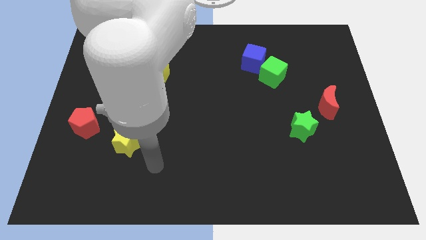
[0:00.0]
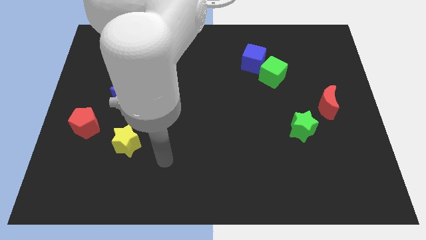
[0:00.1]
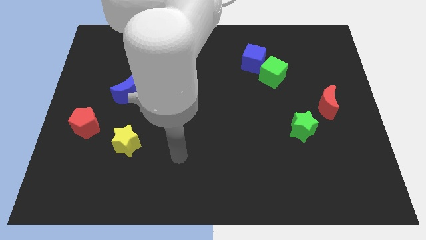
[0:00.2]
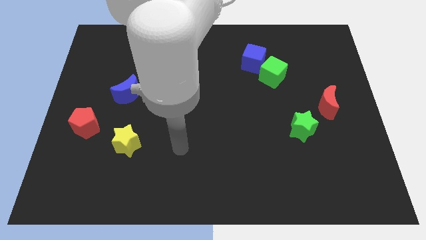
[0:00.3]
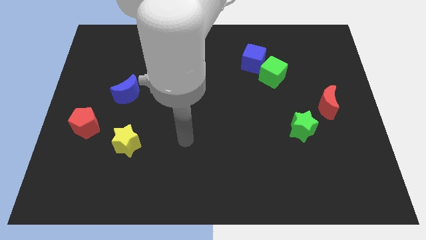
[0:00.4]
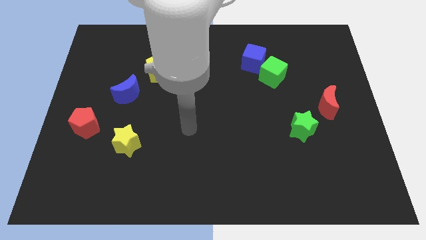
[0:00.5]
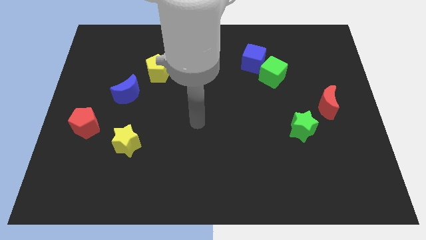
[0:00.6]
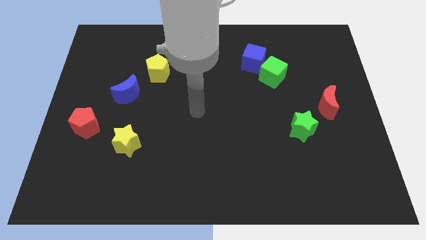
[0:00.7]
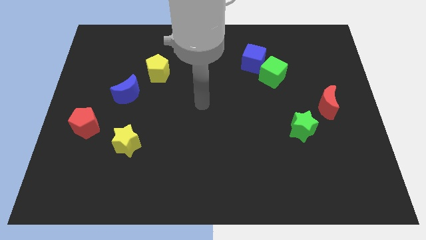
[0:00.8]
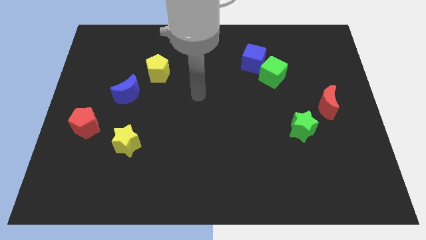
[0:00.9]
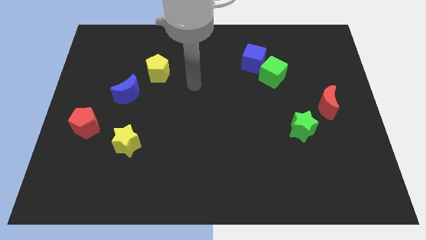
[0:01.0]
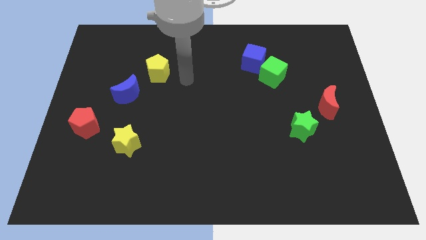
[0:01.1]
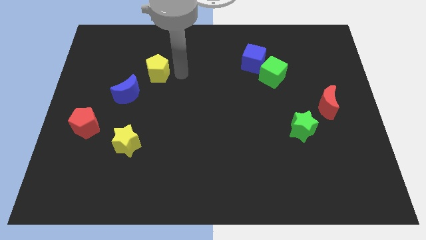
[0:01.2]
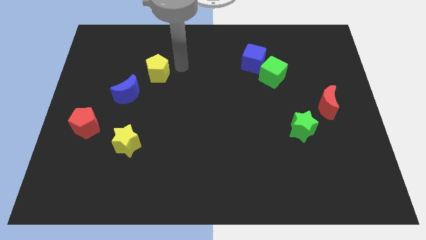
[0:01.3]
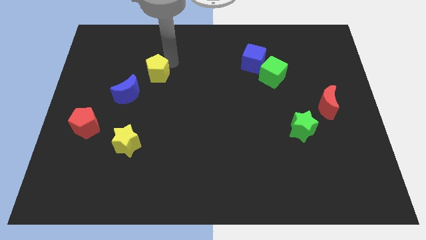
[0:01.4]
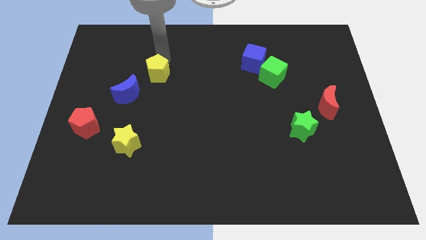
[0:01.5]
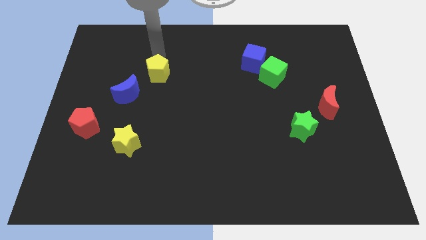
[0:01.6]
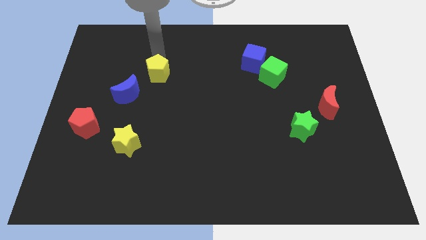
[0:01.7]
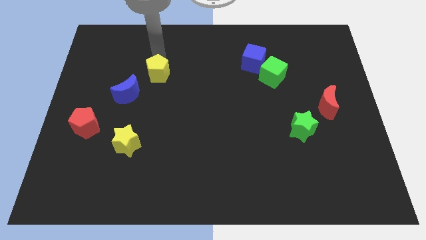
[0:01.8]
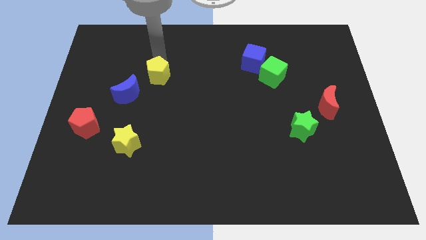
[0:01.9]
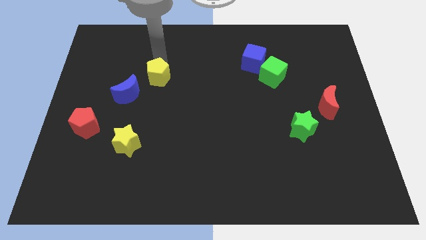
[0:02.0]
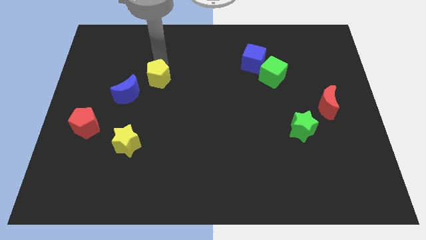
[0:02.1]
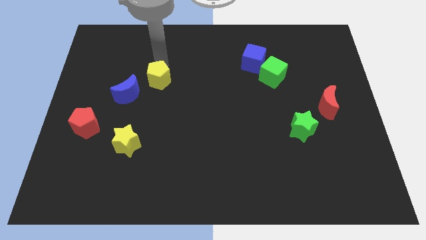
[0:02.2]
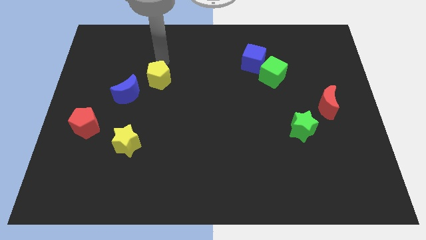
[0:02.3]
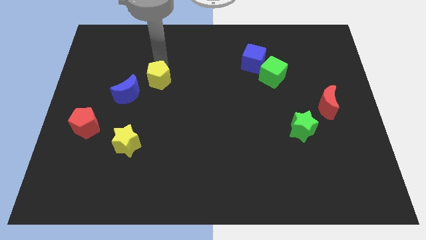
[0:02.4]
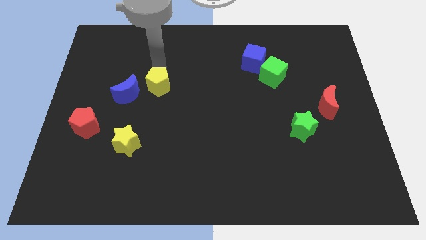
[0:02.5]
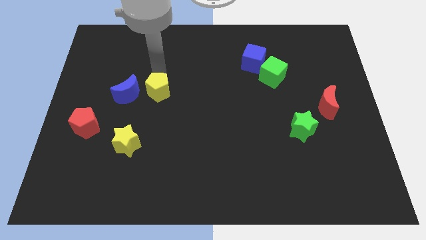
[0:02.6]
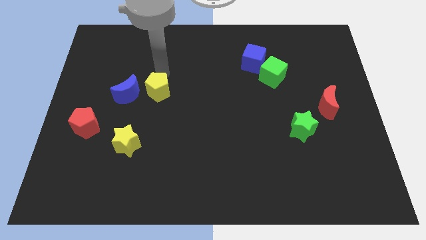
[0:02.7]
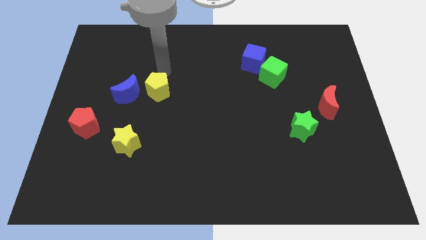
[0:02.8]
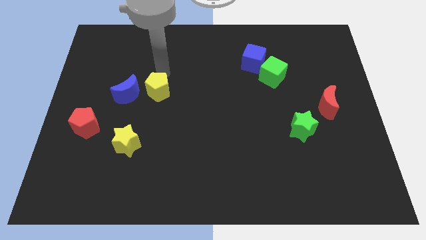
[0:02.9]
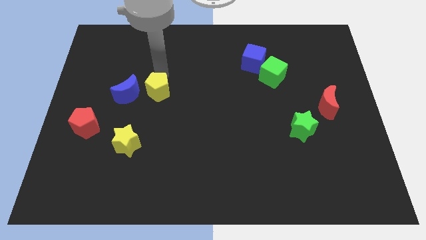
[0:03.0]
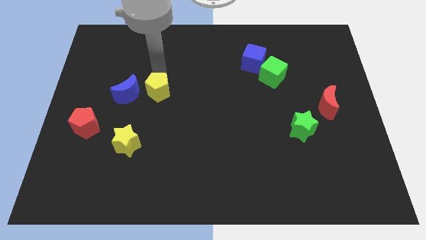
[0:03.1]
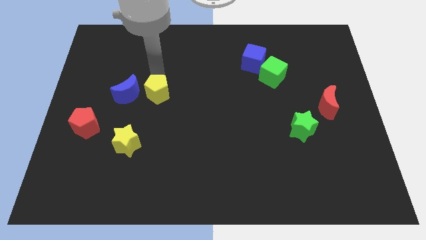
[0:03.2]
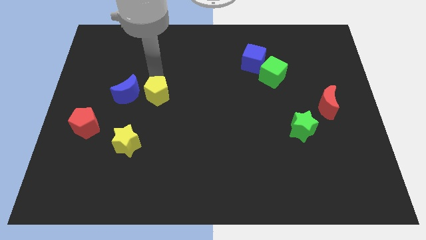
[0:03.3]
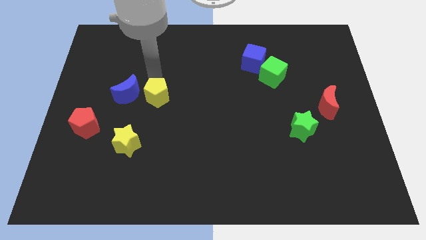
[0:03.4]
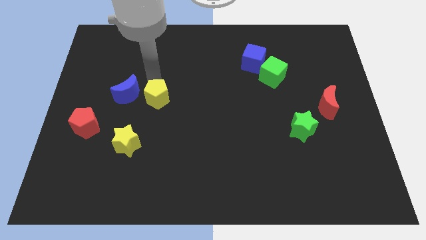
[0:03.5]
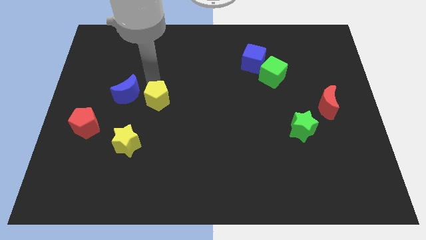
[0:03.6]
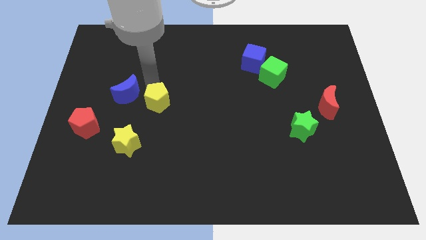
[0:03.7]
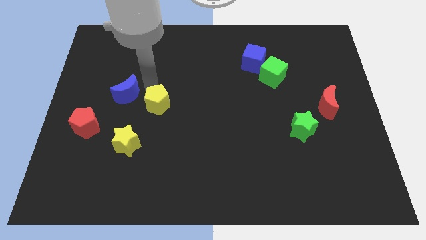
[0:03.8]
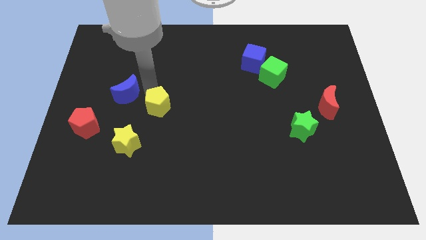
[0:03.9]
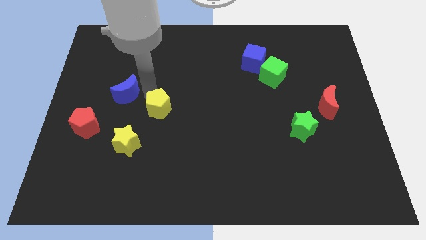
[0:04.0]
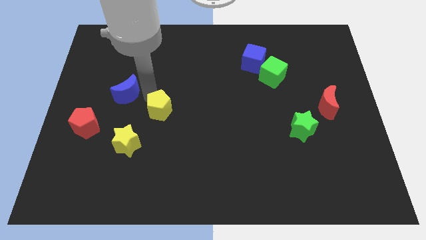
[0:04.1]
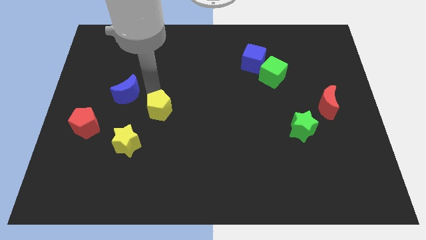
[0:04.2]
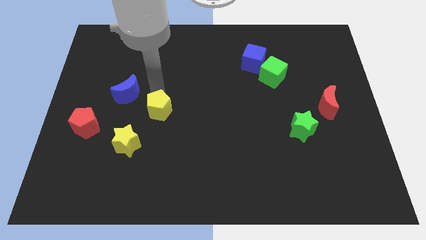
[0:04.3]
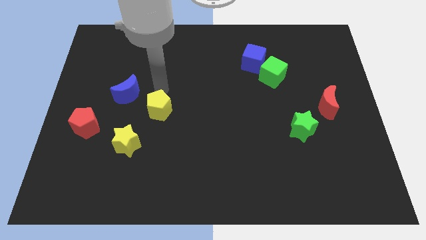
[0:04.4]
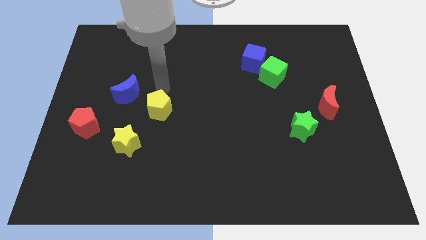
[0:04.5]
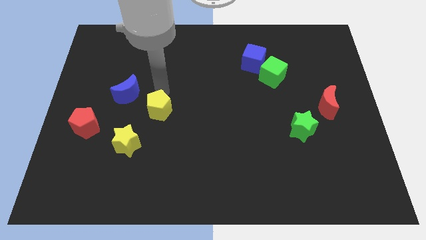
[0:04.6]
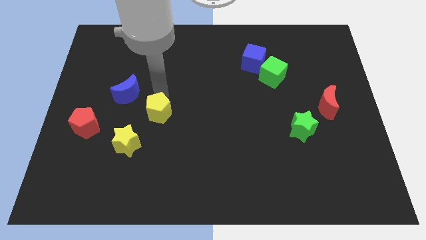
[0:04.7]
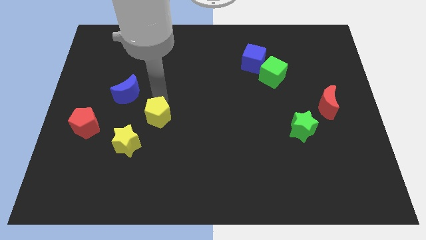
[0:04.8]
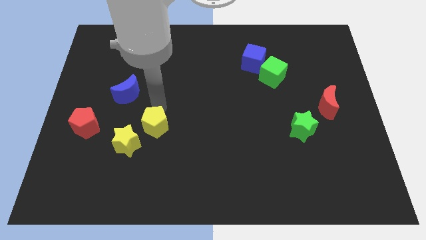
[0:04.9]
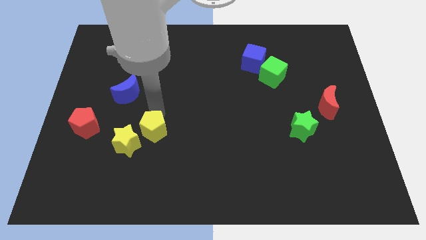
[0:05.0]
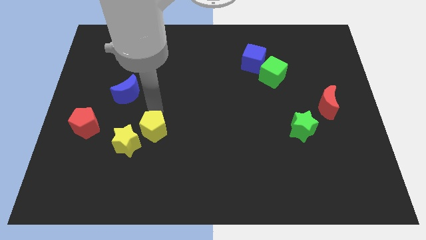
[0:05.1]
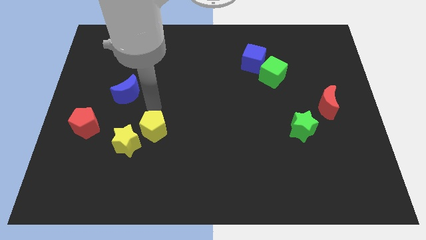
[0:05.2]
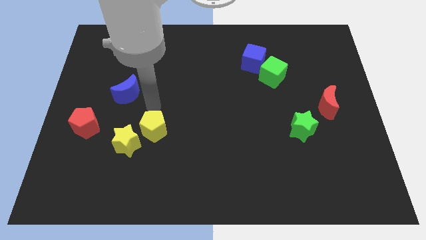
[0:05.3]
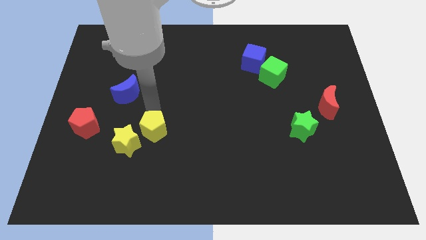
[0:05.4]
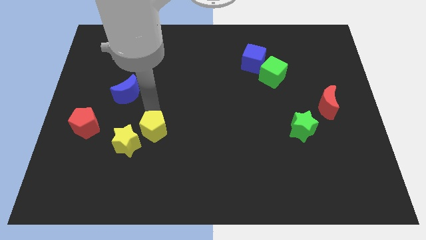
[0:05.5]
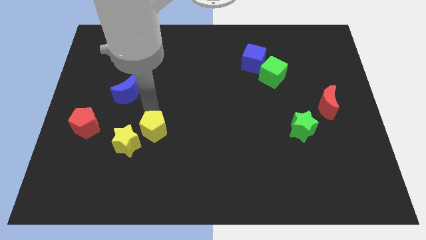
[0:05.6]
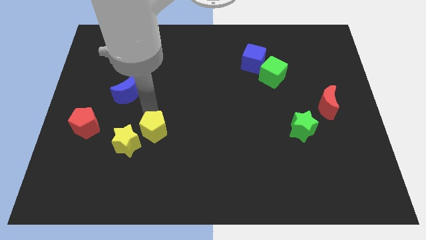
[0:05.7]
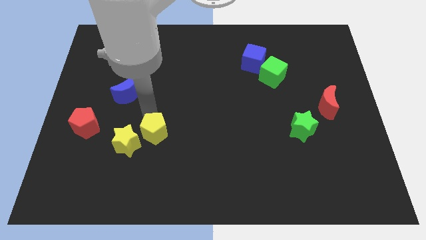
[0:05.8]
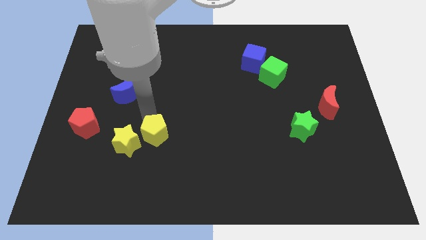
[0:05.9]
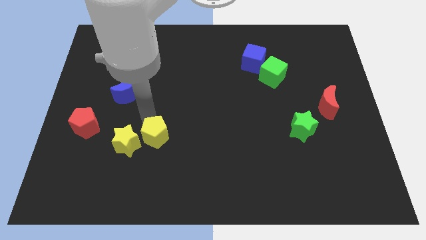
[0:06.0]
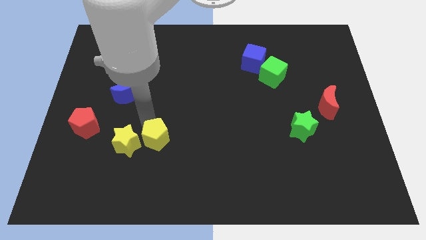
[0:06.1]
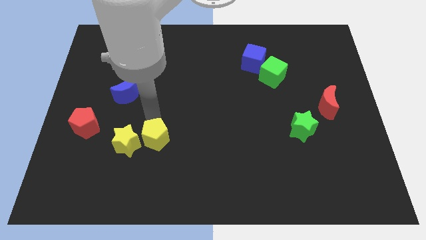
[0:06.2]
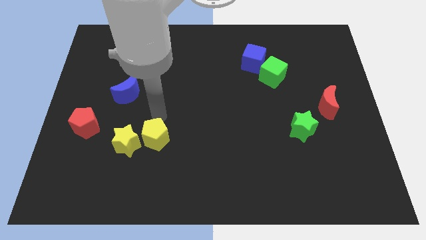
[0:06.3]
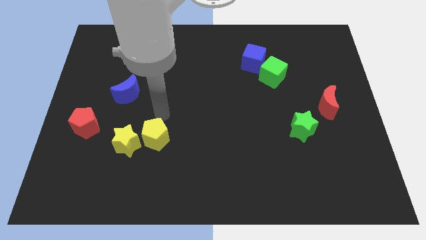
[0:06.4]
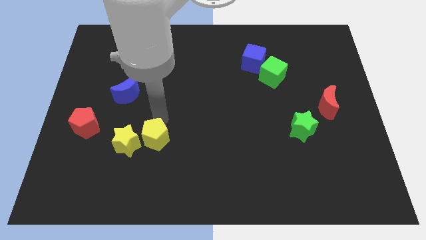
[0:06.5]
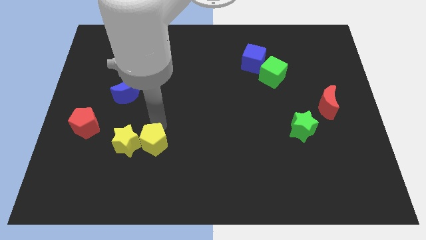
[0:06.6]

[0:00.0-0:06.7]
move the yellow pentagon to the bottom right side of the yellow star
